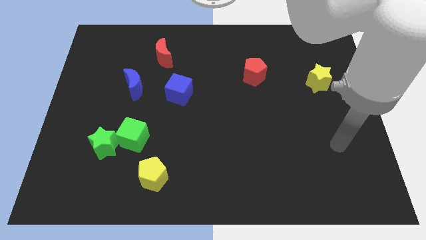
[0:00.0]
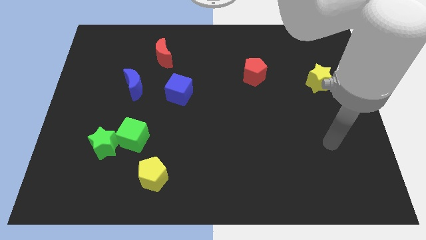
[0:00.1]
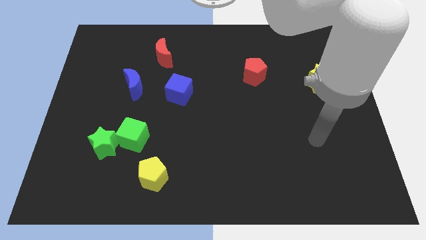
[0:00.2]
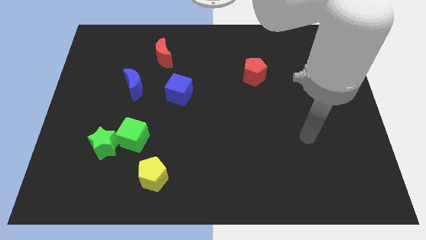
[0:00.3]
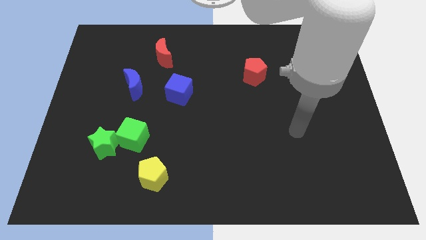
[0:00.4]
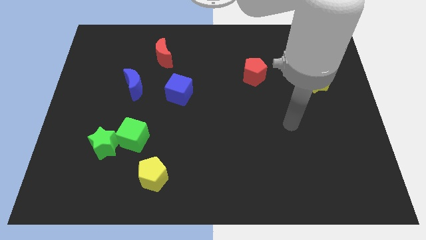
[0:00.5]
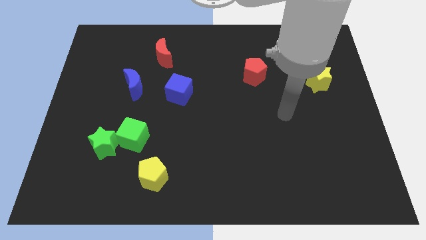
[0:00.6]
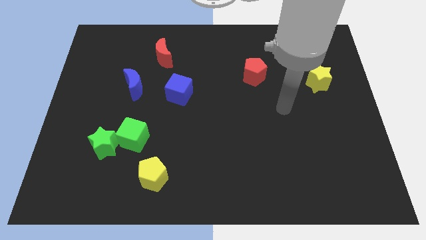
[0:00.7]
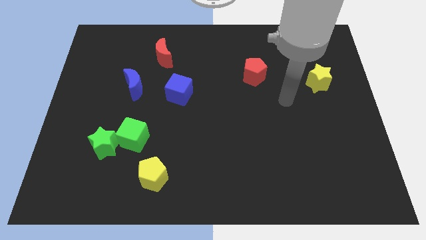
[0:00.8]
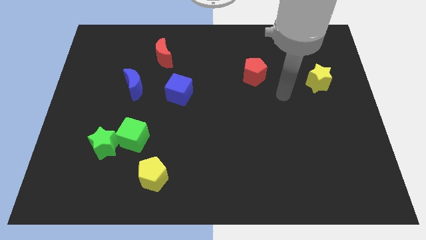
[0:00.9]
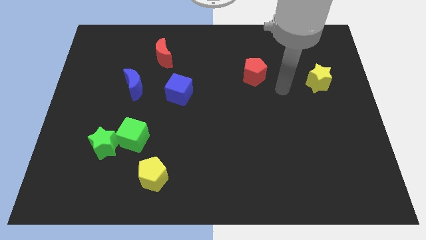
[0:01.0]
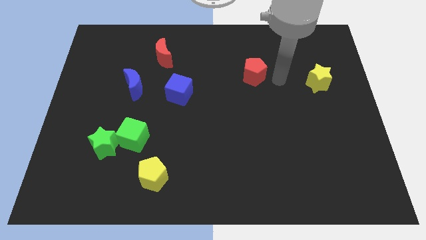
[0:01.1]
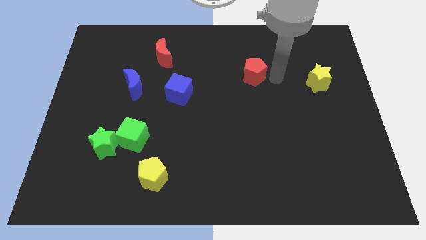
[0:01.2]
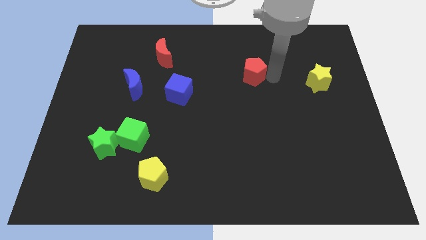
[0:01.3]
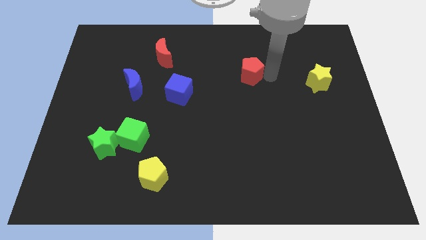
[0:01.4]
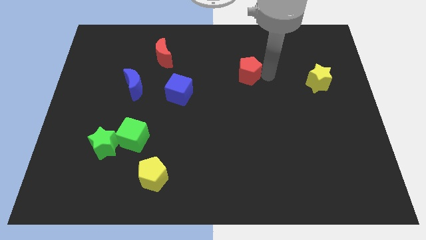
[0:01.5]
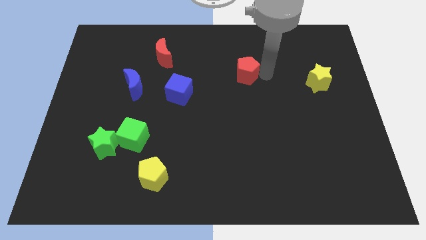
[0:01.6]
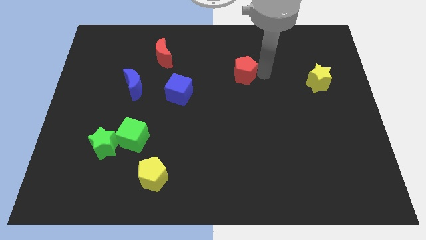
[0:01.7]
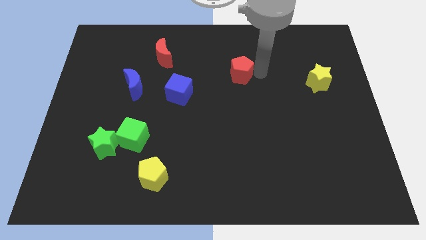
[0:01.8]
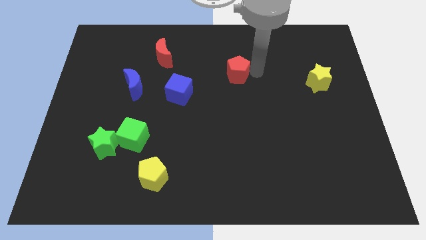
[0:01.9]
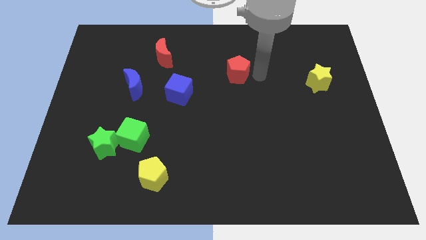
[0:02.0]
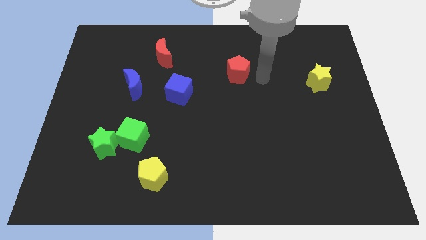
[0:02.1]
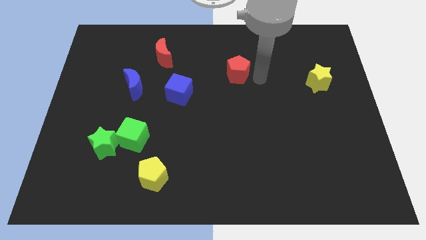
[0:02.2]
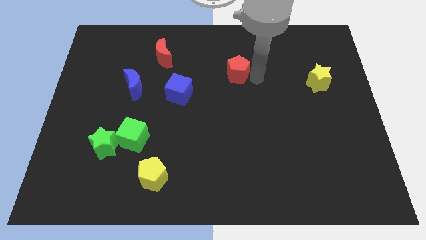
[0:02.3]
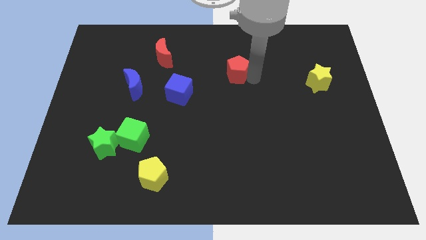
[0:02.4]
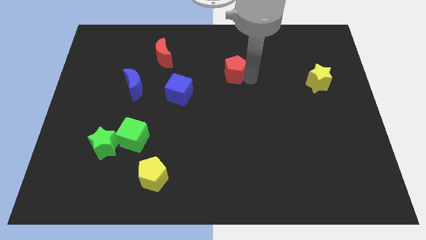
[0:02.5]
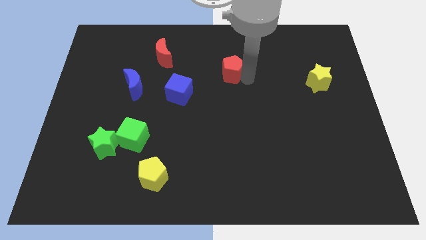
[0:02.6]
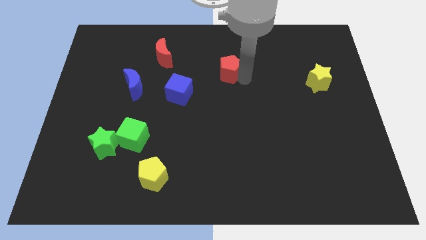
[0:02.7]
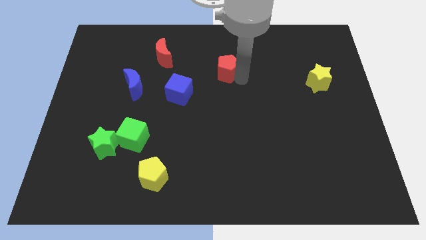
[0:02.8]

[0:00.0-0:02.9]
push the red pentagon a bit to the left

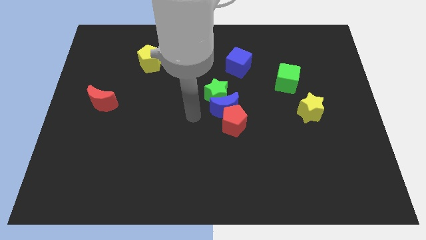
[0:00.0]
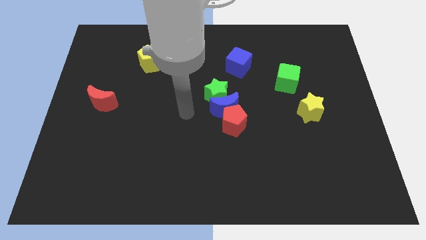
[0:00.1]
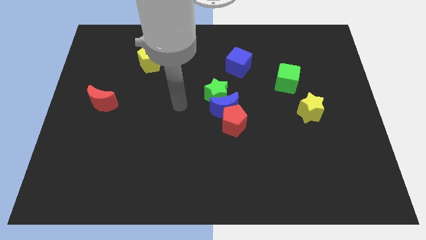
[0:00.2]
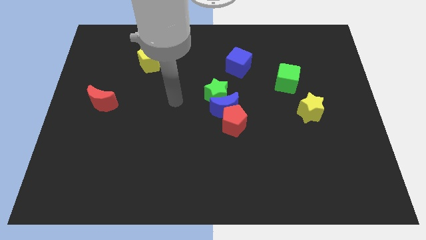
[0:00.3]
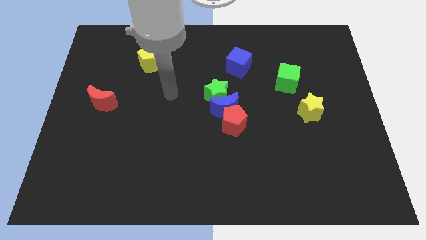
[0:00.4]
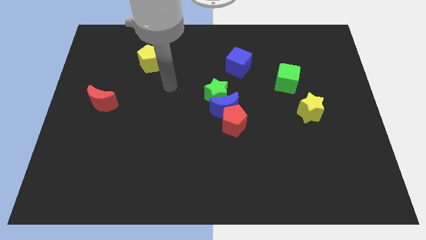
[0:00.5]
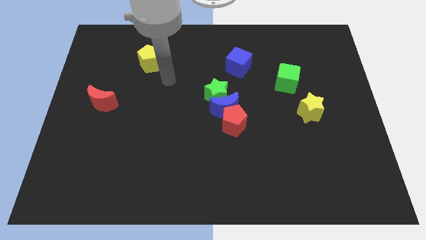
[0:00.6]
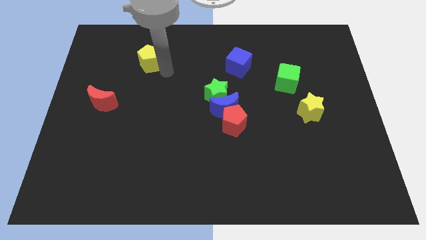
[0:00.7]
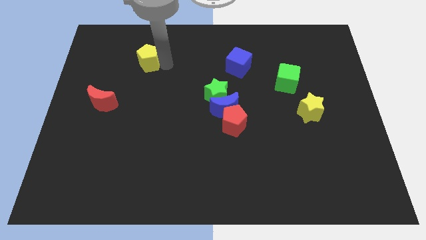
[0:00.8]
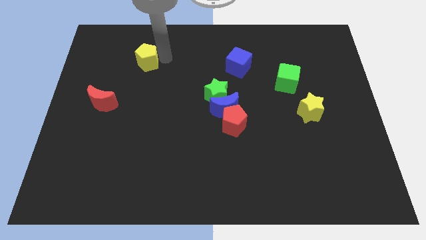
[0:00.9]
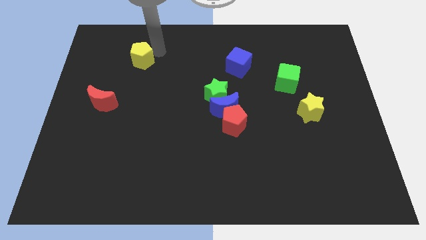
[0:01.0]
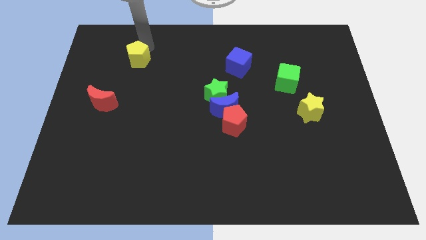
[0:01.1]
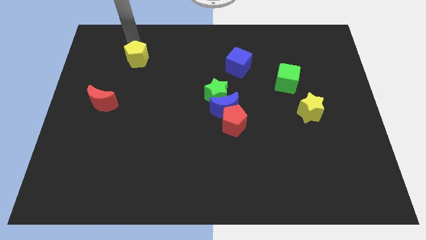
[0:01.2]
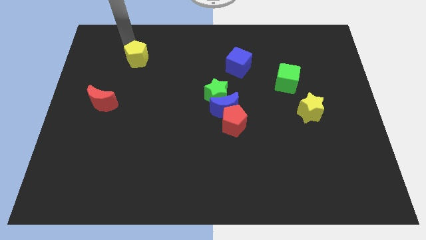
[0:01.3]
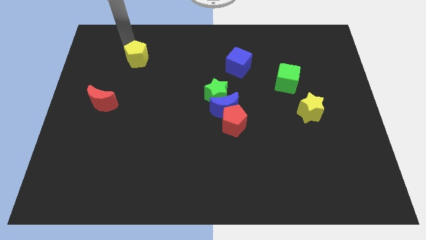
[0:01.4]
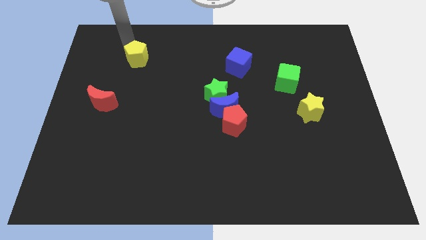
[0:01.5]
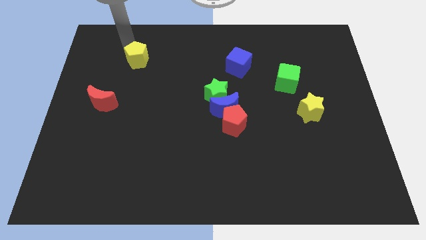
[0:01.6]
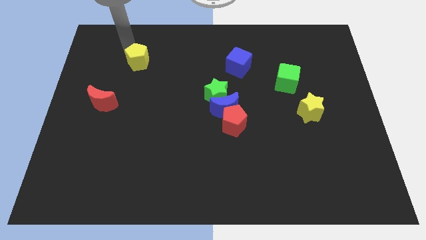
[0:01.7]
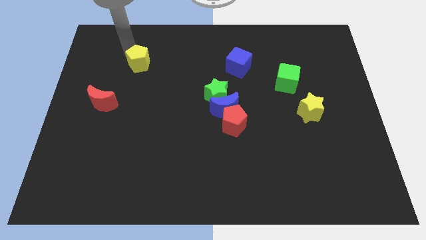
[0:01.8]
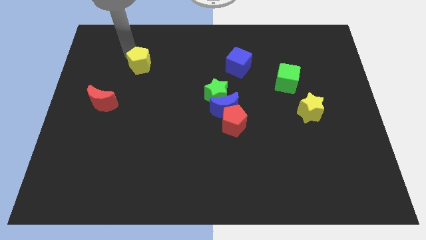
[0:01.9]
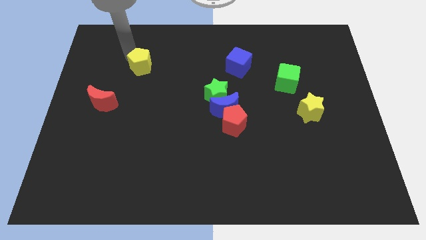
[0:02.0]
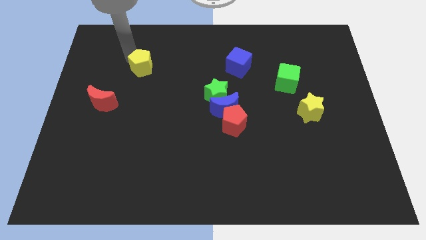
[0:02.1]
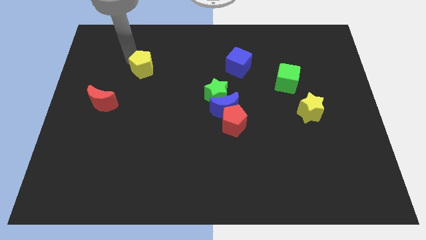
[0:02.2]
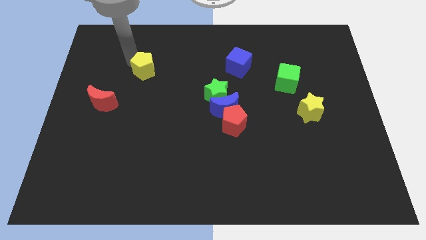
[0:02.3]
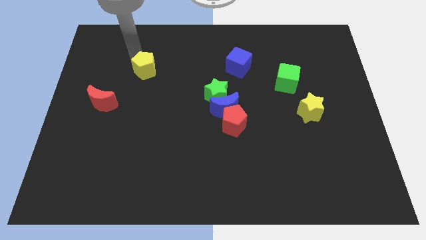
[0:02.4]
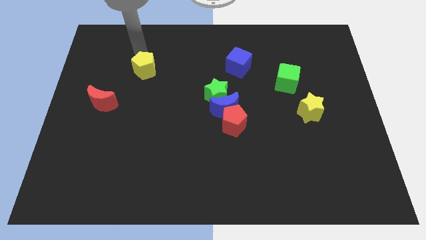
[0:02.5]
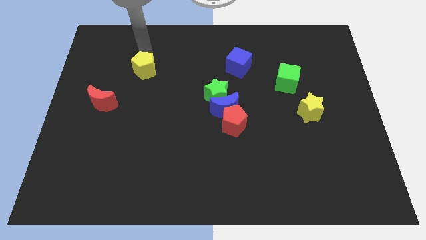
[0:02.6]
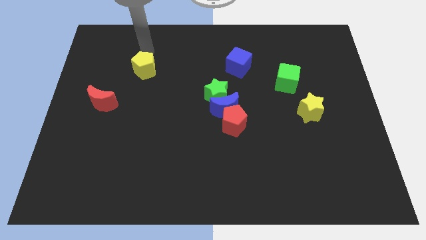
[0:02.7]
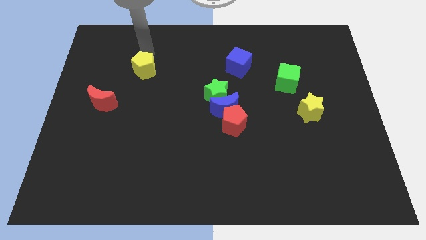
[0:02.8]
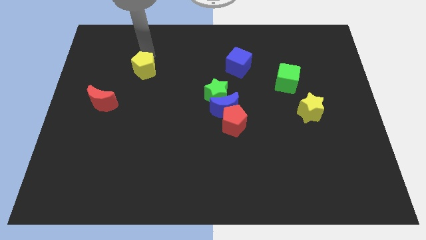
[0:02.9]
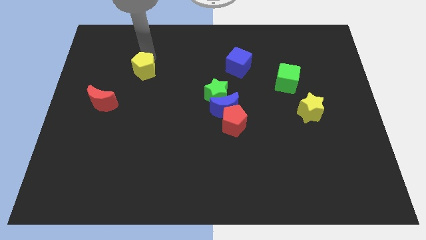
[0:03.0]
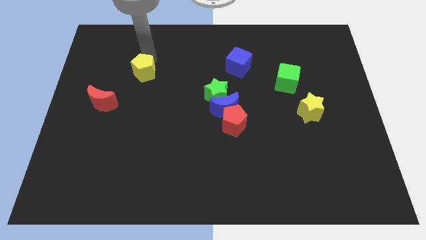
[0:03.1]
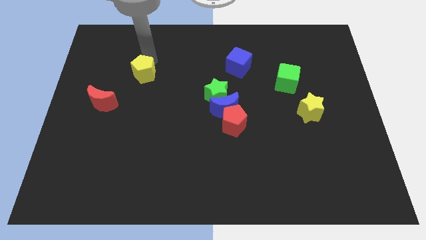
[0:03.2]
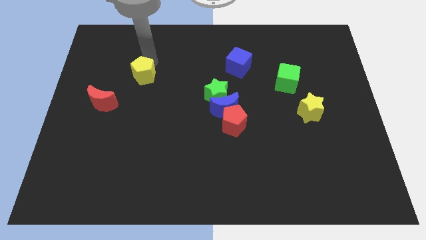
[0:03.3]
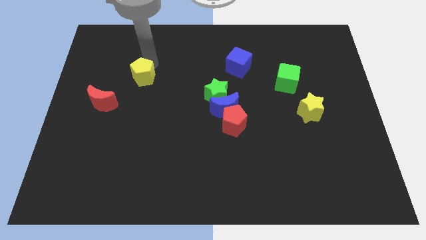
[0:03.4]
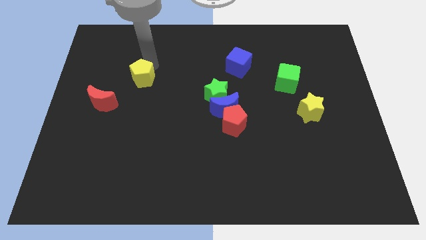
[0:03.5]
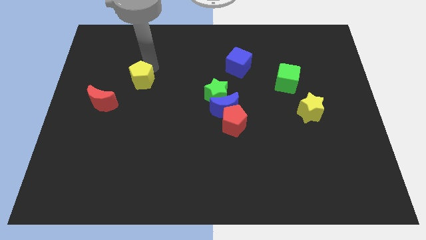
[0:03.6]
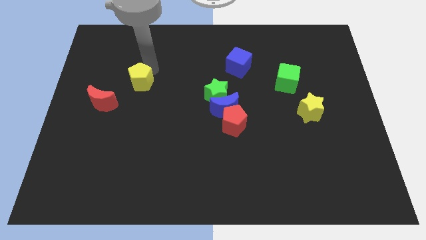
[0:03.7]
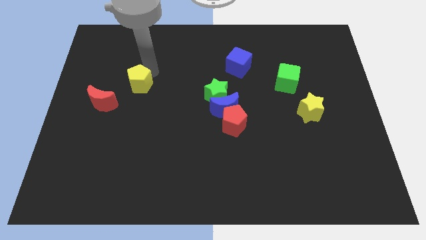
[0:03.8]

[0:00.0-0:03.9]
slightly push the yellow pentagon downwards

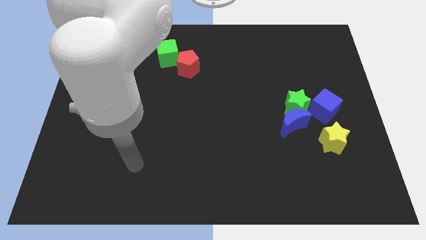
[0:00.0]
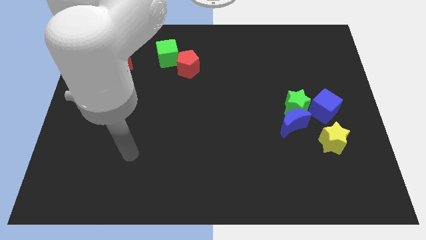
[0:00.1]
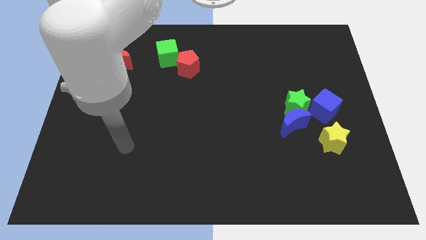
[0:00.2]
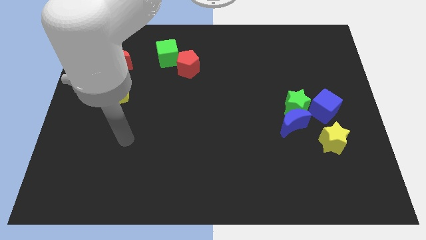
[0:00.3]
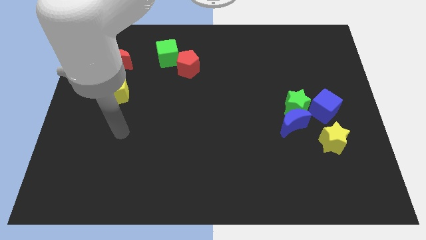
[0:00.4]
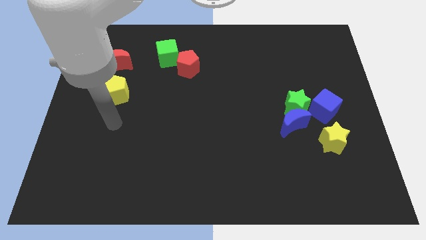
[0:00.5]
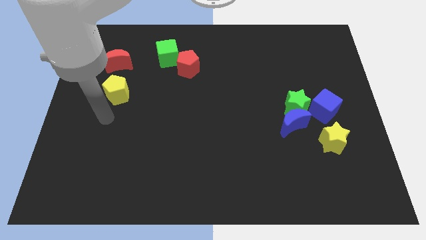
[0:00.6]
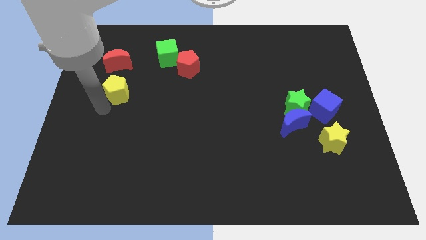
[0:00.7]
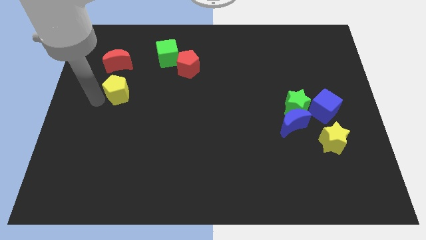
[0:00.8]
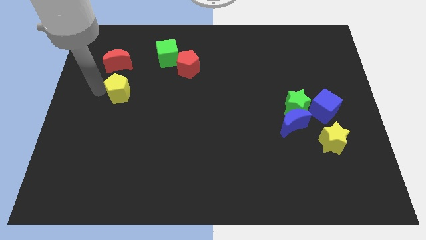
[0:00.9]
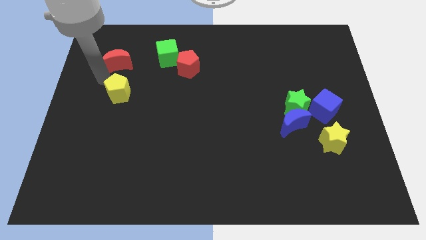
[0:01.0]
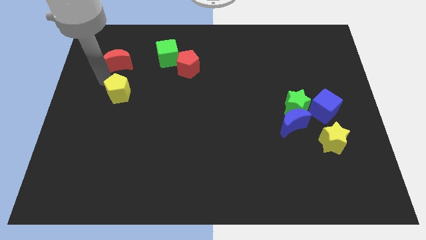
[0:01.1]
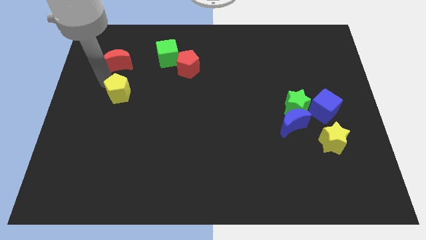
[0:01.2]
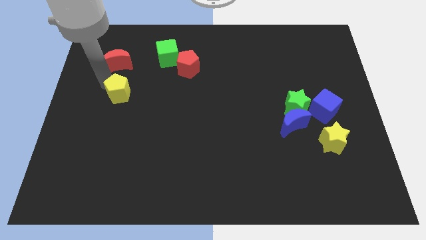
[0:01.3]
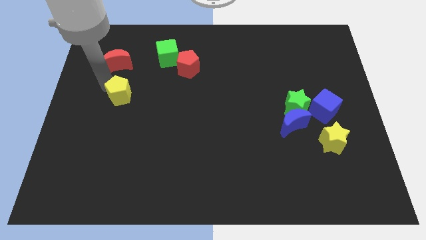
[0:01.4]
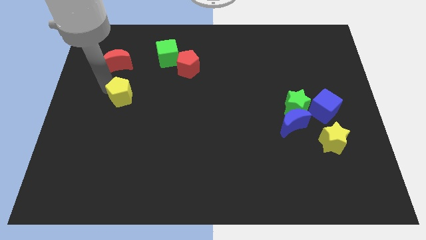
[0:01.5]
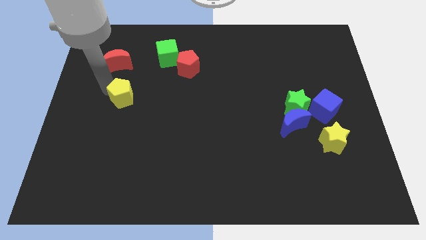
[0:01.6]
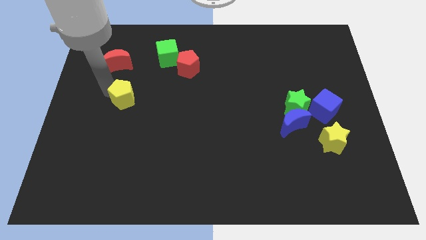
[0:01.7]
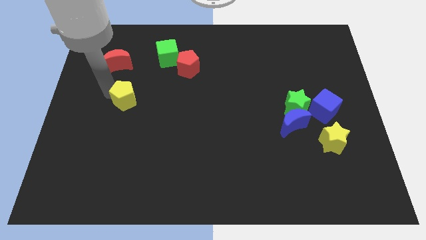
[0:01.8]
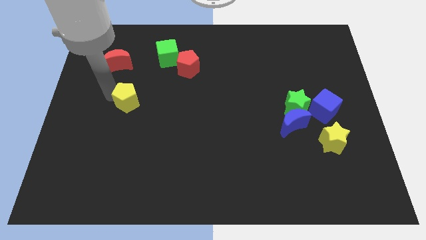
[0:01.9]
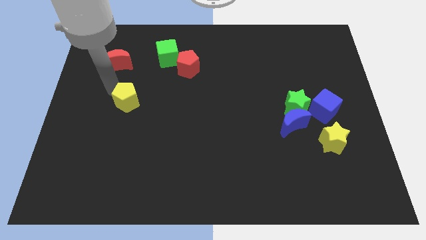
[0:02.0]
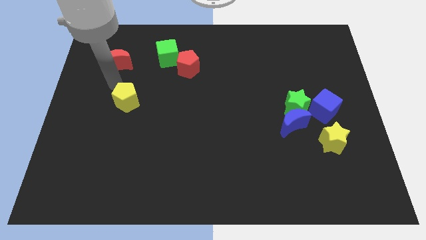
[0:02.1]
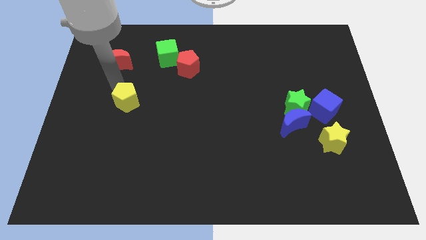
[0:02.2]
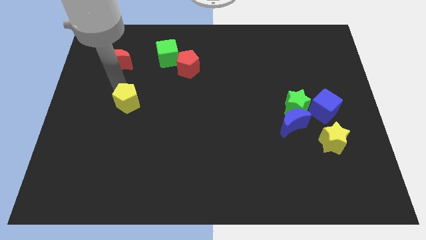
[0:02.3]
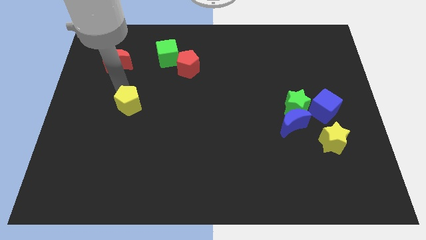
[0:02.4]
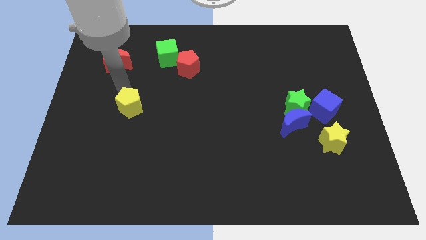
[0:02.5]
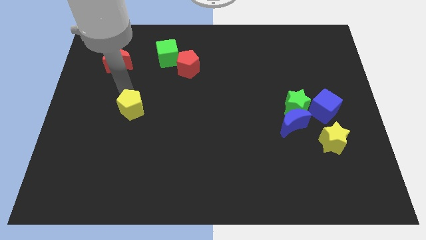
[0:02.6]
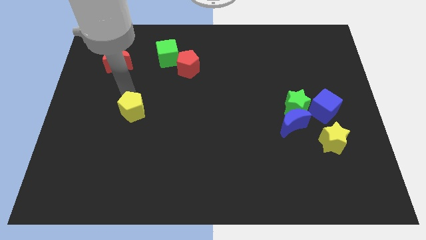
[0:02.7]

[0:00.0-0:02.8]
slightly move the yellow pentagon downwards and right diagonally
